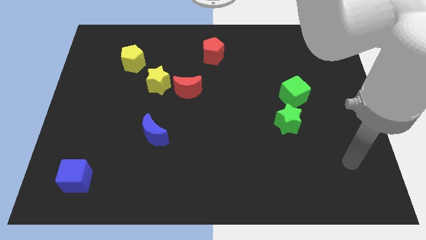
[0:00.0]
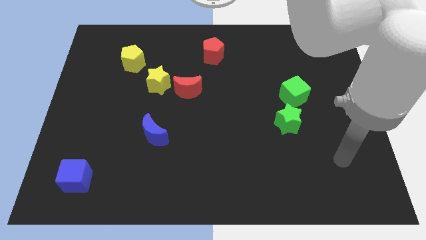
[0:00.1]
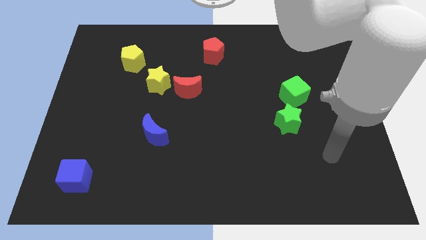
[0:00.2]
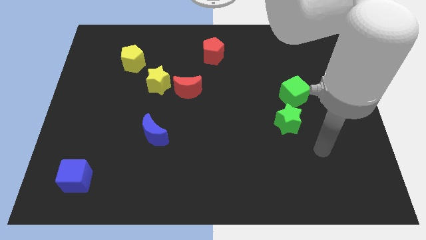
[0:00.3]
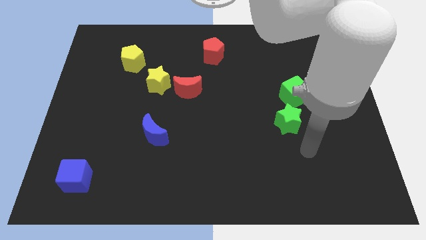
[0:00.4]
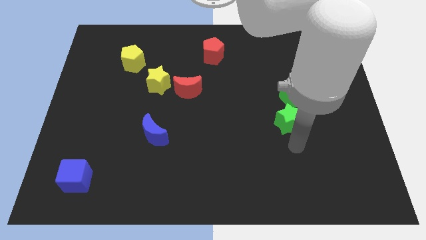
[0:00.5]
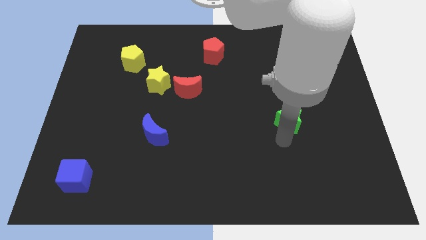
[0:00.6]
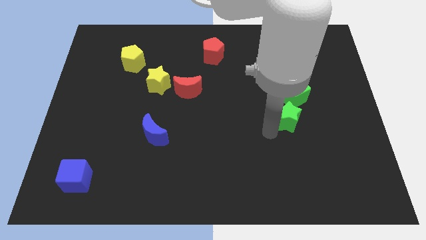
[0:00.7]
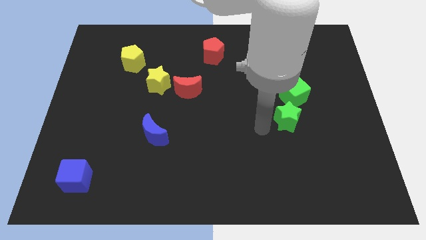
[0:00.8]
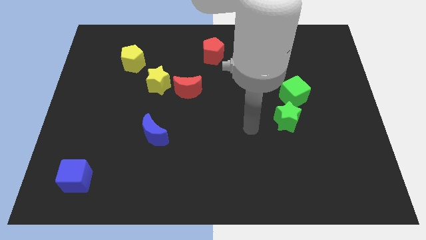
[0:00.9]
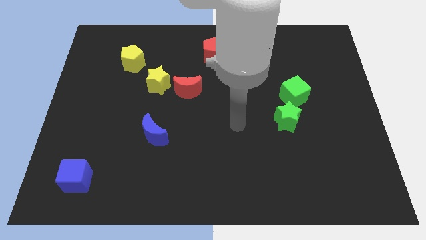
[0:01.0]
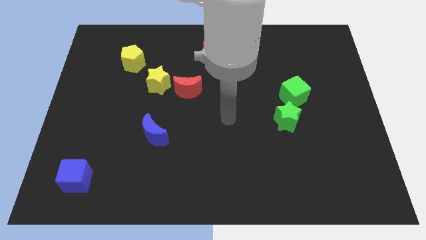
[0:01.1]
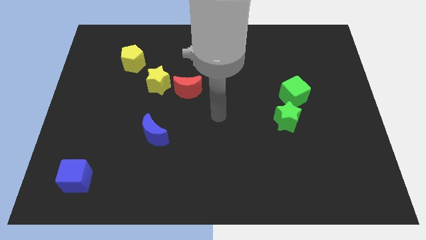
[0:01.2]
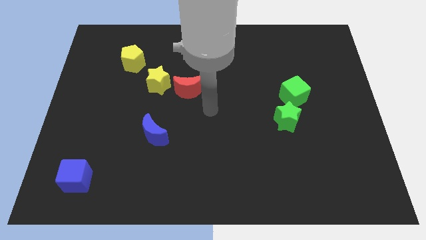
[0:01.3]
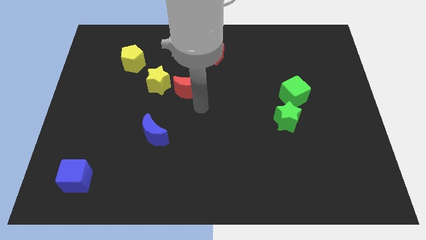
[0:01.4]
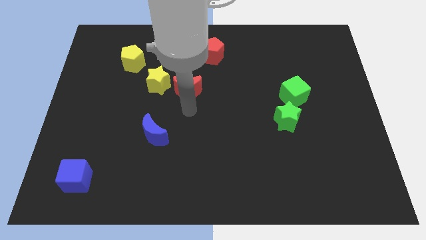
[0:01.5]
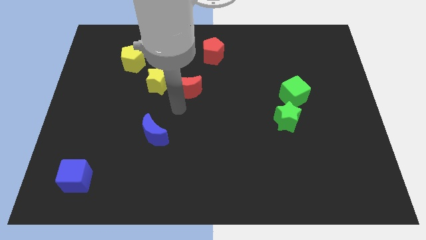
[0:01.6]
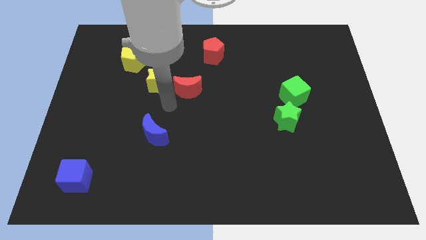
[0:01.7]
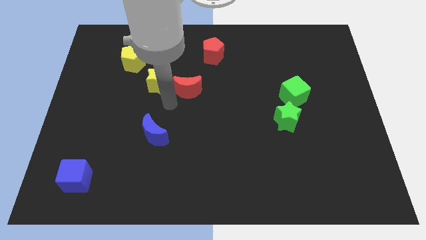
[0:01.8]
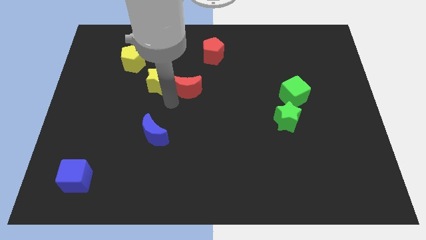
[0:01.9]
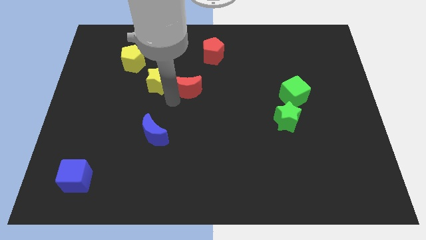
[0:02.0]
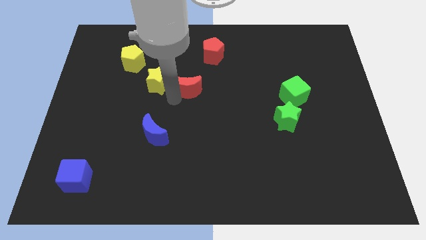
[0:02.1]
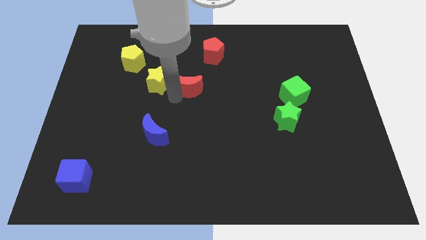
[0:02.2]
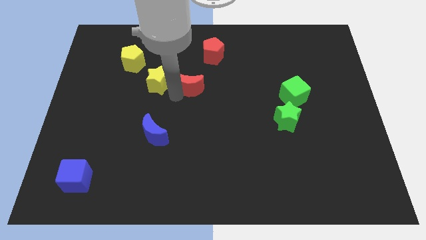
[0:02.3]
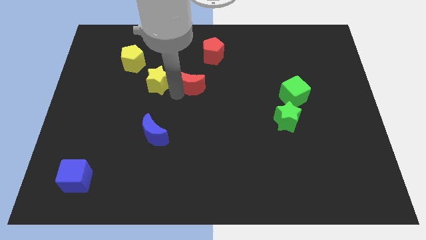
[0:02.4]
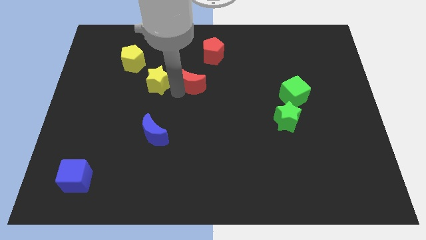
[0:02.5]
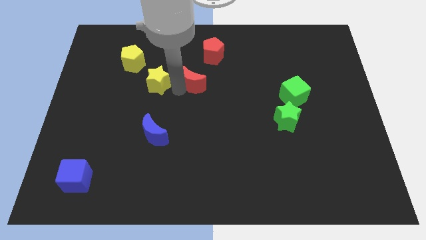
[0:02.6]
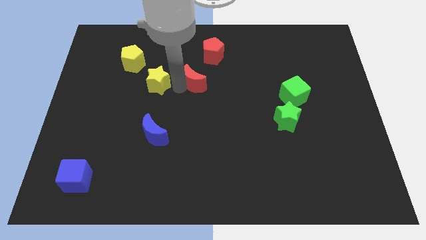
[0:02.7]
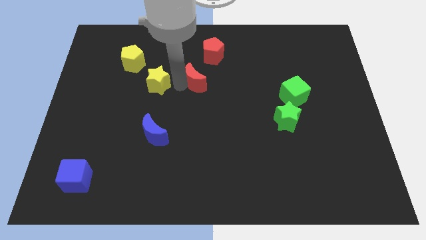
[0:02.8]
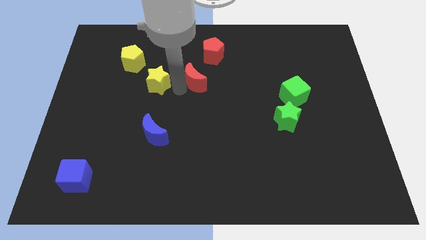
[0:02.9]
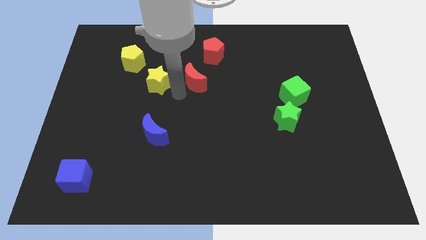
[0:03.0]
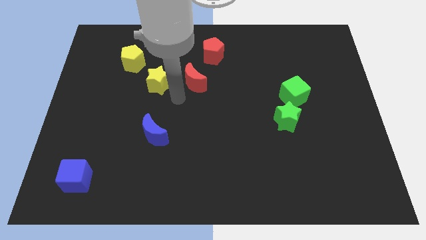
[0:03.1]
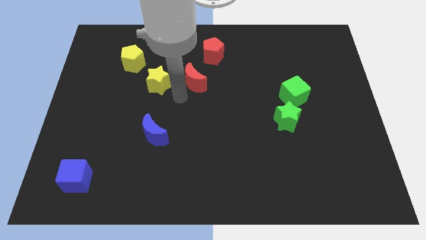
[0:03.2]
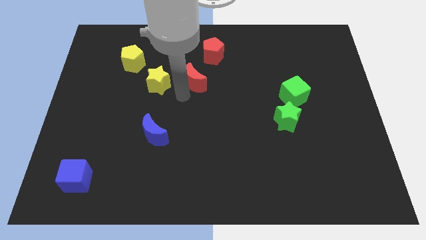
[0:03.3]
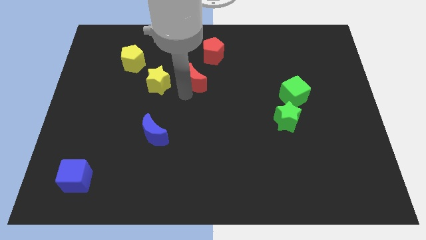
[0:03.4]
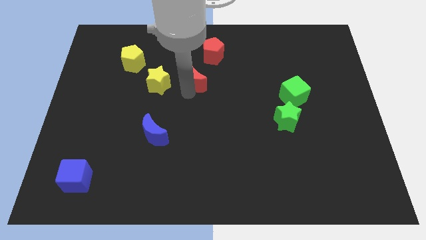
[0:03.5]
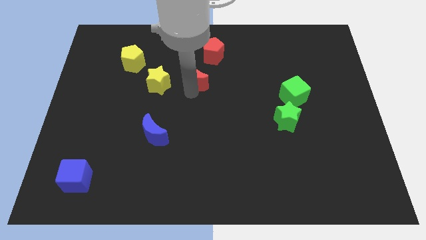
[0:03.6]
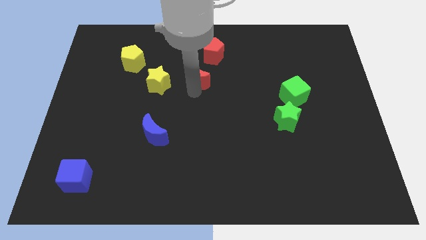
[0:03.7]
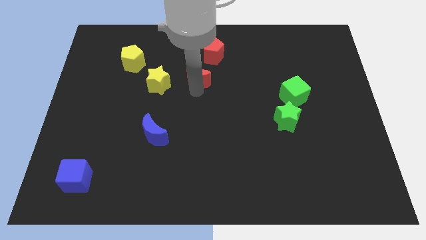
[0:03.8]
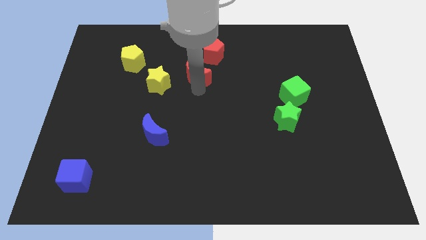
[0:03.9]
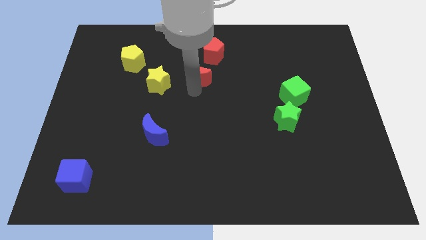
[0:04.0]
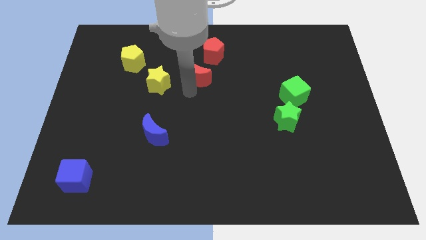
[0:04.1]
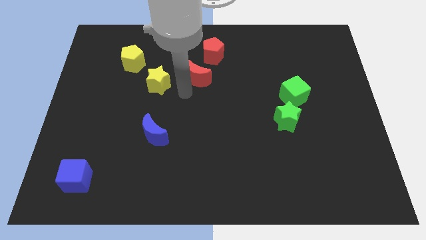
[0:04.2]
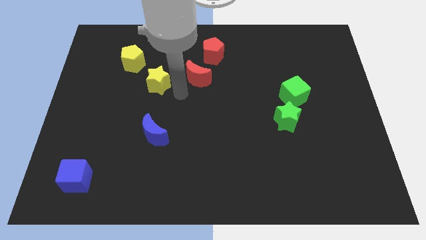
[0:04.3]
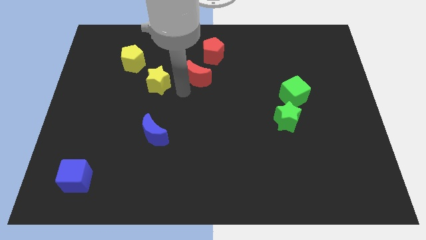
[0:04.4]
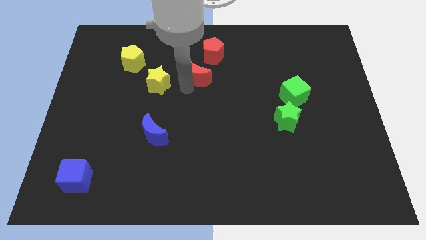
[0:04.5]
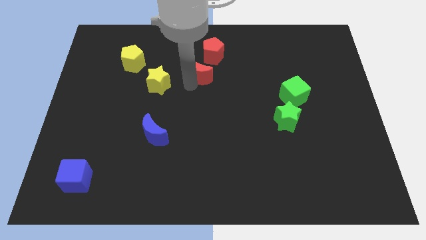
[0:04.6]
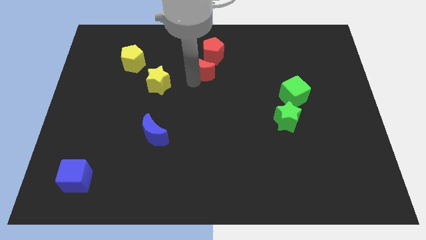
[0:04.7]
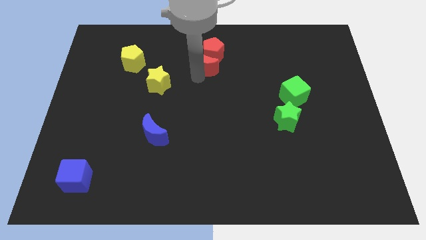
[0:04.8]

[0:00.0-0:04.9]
move the red moon next to the red pentagon

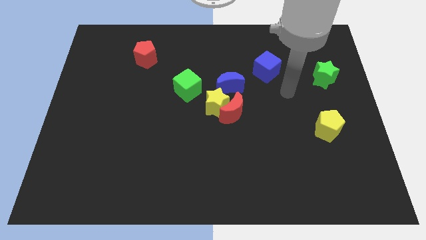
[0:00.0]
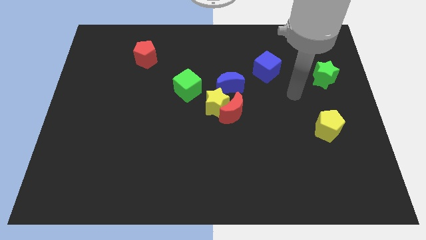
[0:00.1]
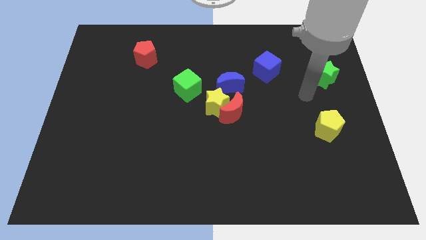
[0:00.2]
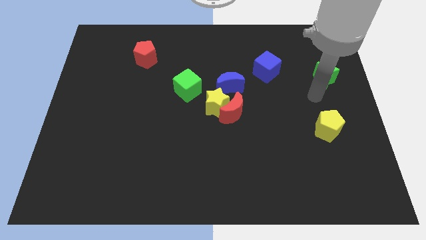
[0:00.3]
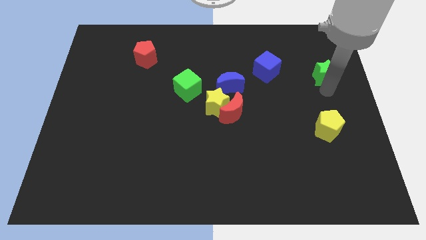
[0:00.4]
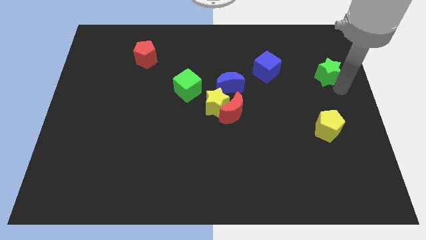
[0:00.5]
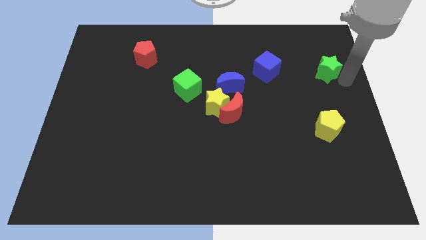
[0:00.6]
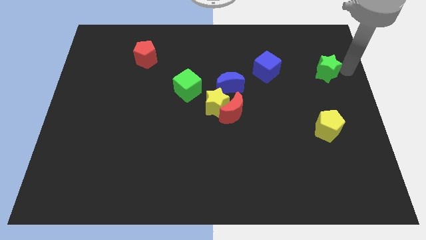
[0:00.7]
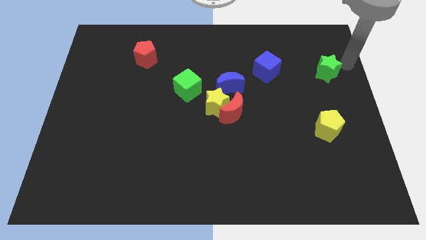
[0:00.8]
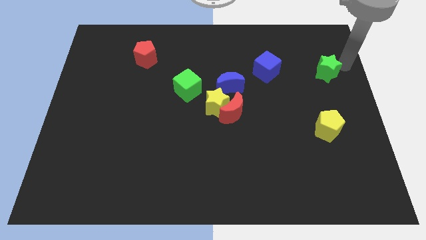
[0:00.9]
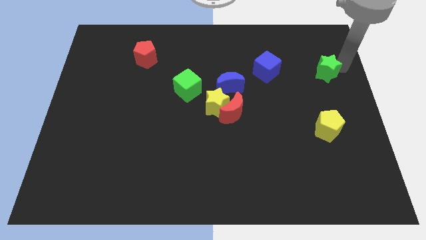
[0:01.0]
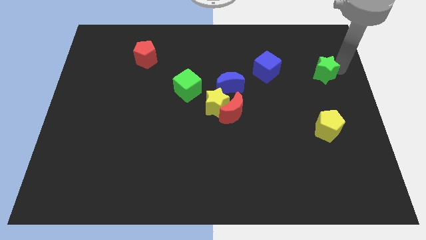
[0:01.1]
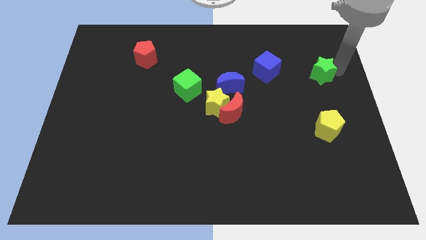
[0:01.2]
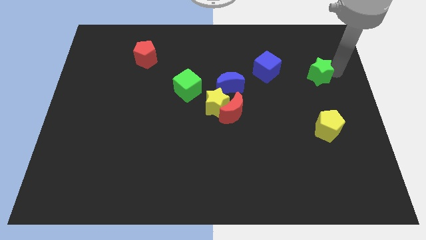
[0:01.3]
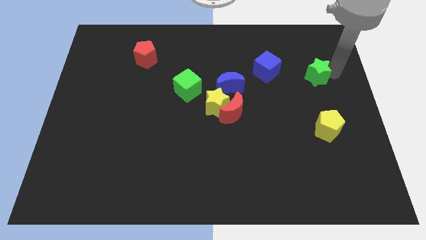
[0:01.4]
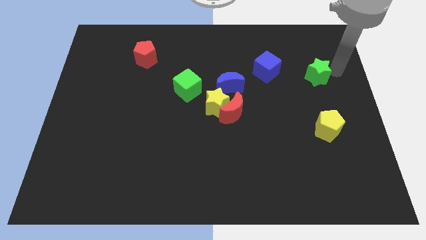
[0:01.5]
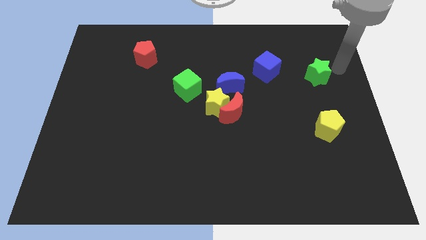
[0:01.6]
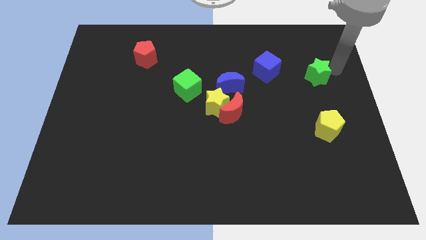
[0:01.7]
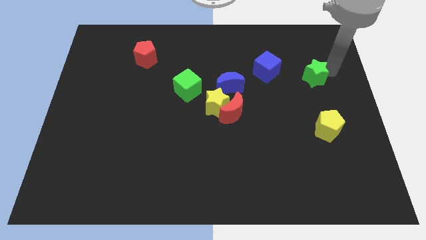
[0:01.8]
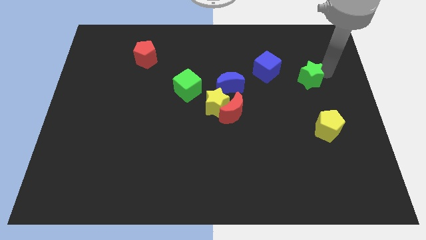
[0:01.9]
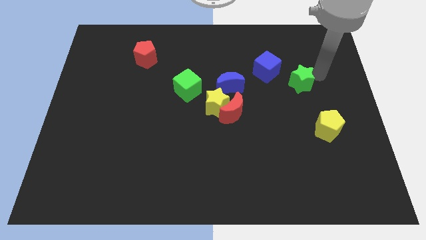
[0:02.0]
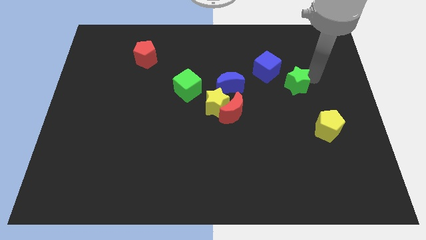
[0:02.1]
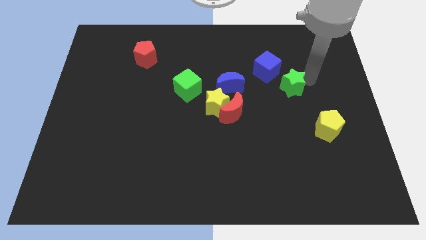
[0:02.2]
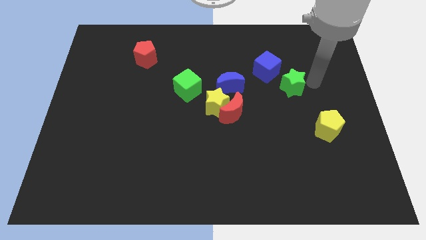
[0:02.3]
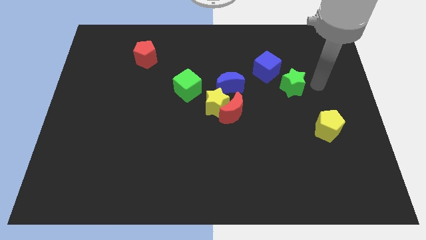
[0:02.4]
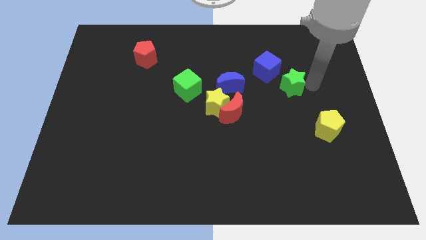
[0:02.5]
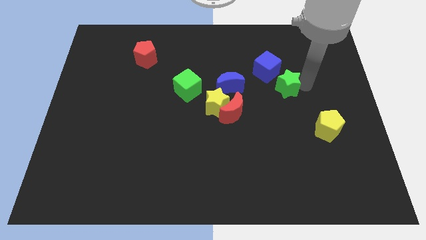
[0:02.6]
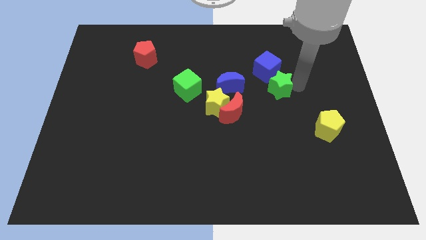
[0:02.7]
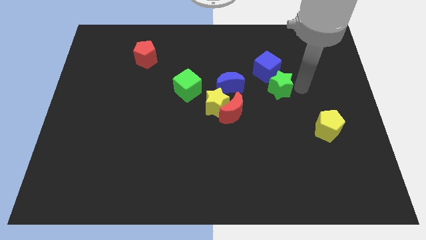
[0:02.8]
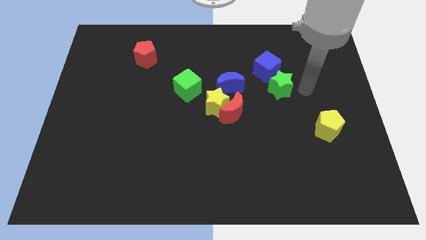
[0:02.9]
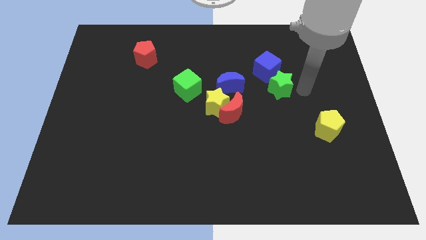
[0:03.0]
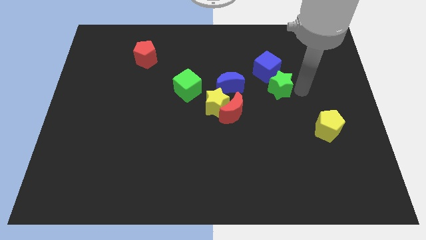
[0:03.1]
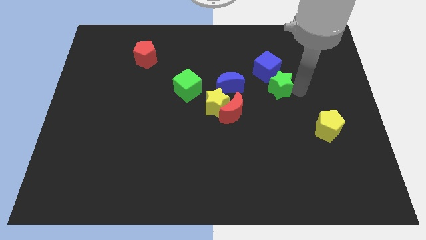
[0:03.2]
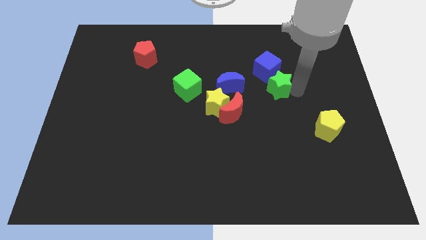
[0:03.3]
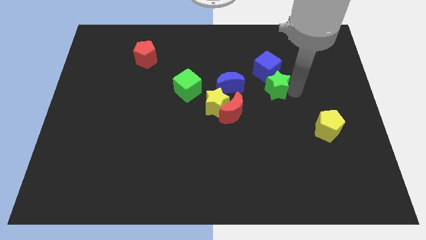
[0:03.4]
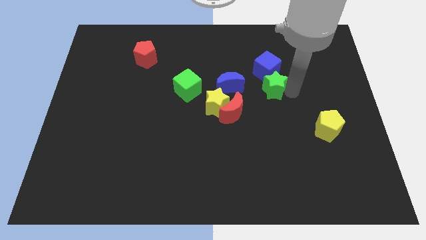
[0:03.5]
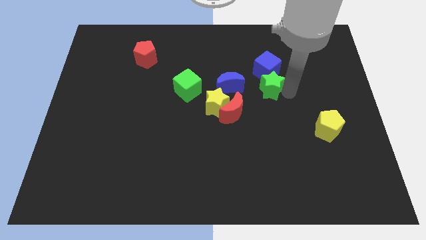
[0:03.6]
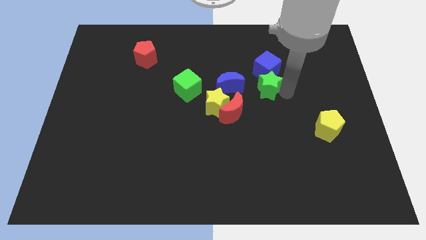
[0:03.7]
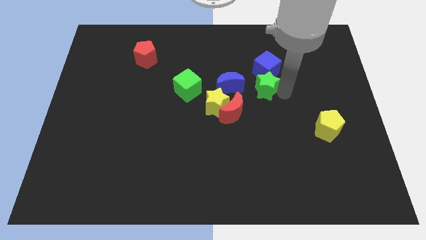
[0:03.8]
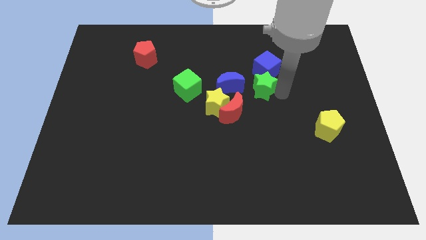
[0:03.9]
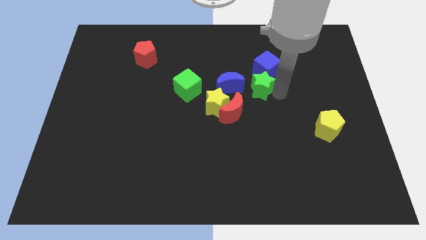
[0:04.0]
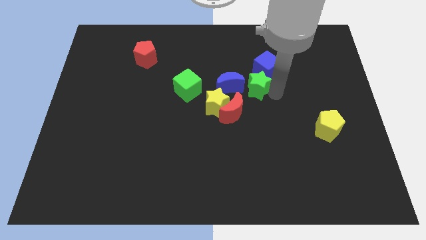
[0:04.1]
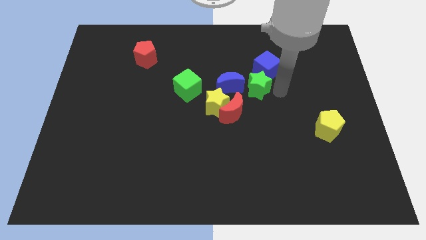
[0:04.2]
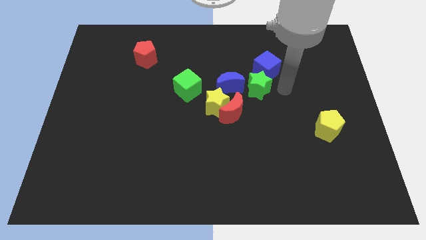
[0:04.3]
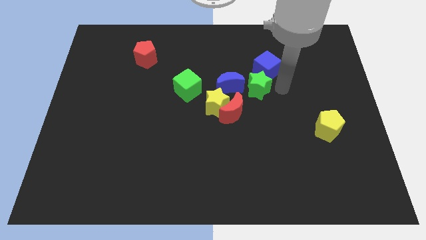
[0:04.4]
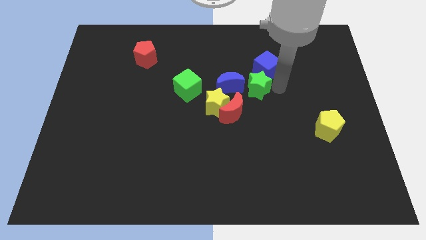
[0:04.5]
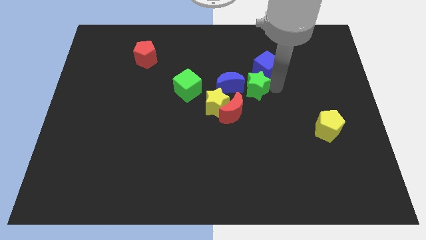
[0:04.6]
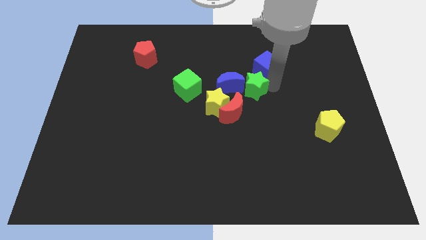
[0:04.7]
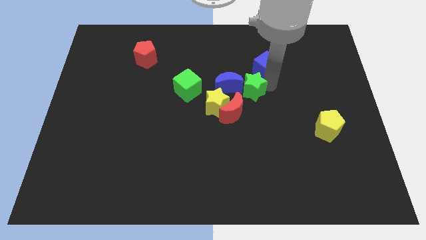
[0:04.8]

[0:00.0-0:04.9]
slide the green star next to the blue moon
